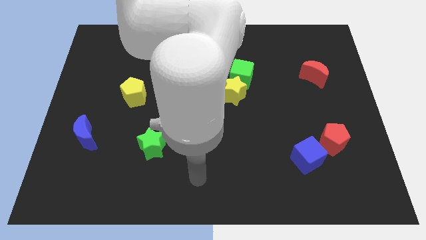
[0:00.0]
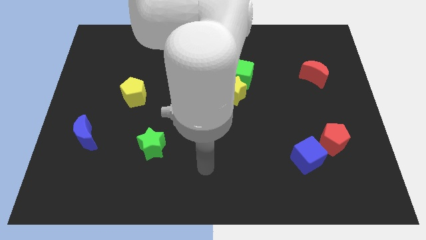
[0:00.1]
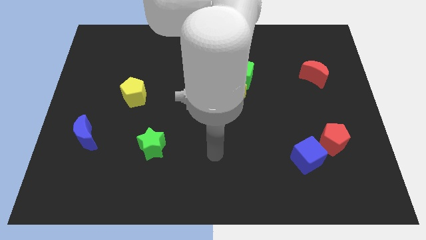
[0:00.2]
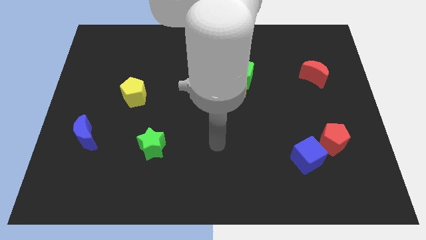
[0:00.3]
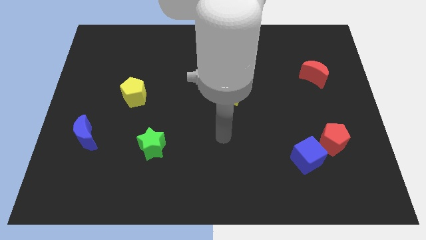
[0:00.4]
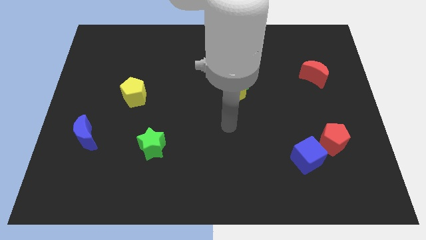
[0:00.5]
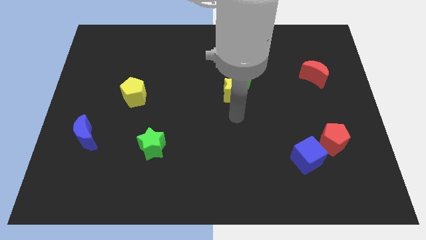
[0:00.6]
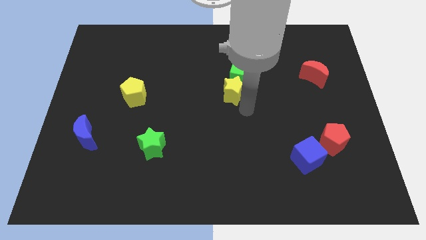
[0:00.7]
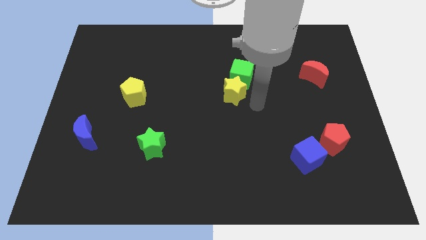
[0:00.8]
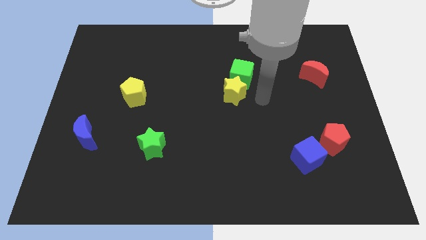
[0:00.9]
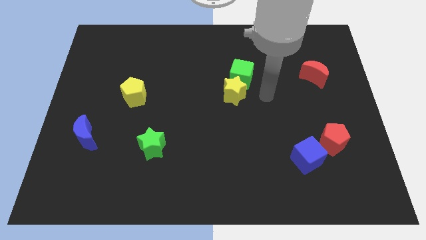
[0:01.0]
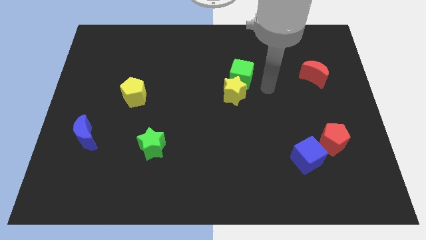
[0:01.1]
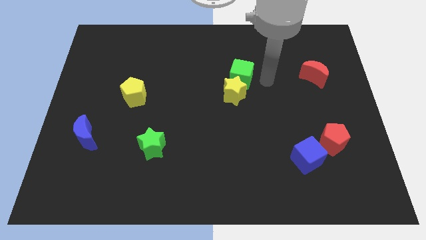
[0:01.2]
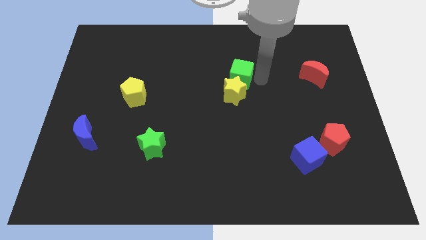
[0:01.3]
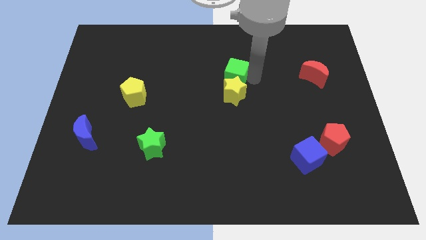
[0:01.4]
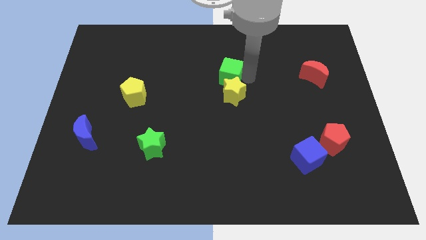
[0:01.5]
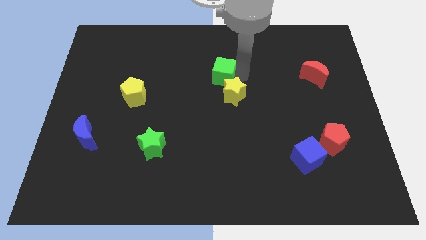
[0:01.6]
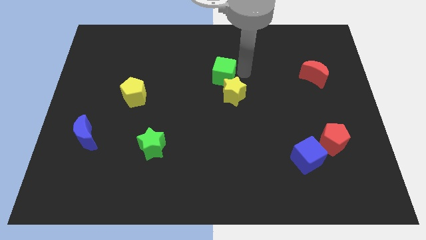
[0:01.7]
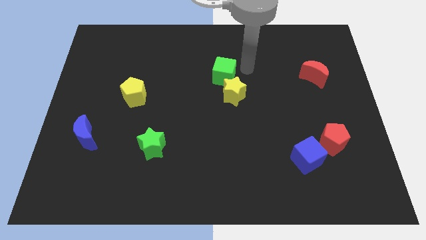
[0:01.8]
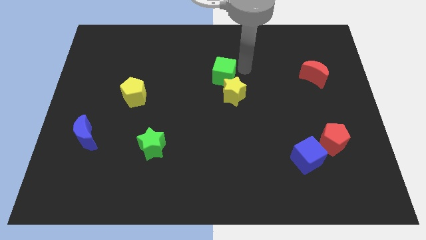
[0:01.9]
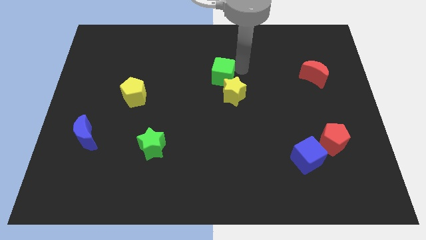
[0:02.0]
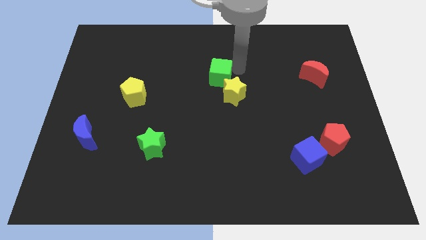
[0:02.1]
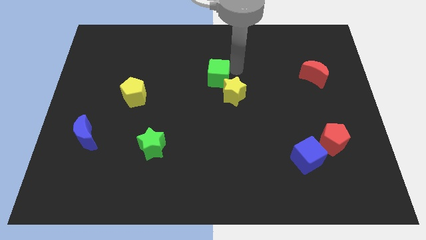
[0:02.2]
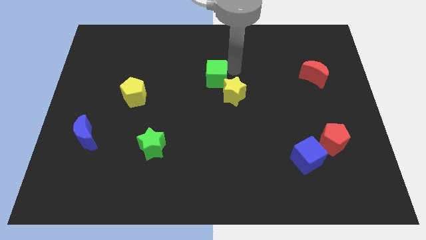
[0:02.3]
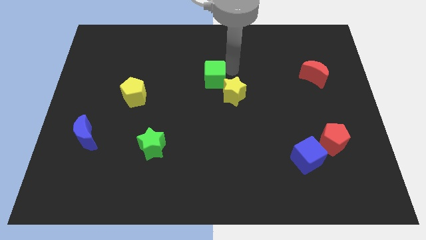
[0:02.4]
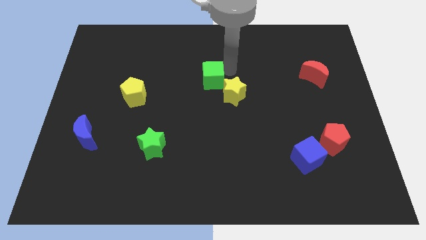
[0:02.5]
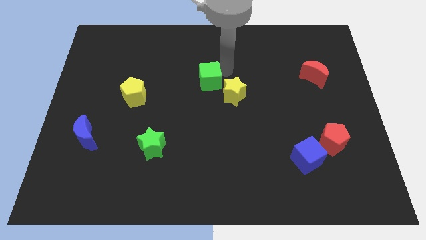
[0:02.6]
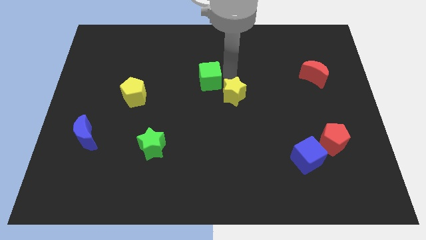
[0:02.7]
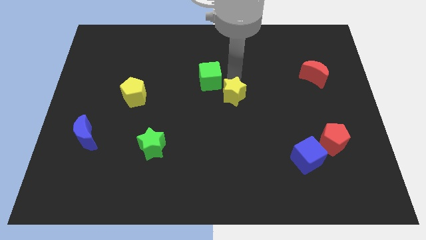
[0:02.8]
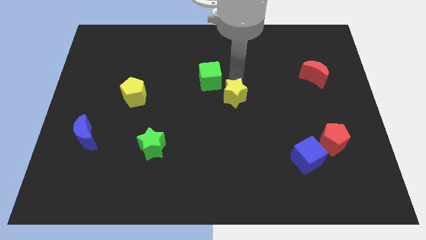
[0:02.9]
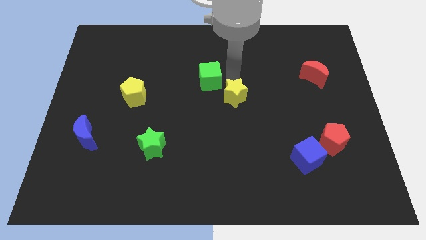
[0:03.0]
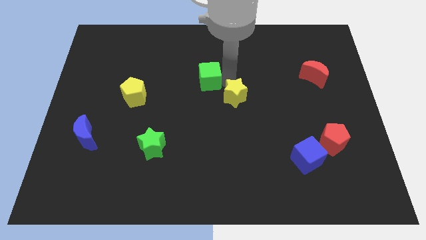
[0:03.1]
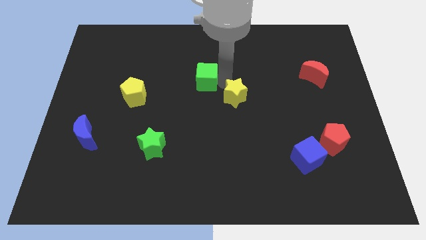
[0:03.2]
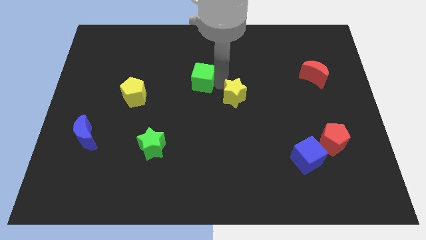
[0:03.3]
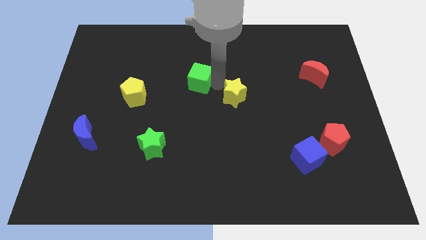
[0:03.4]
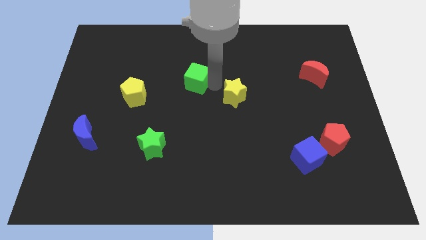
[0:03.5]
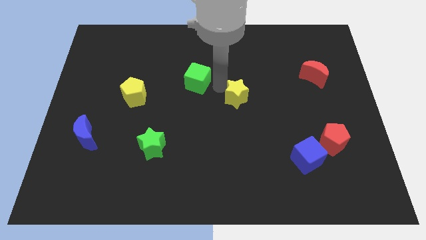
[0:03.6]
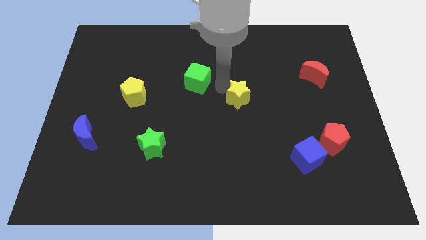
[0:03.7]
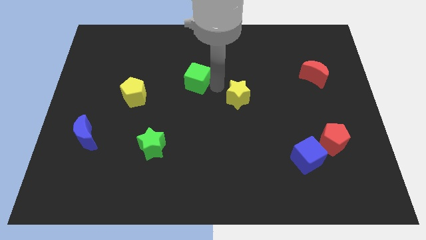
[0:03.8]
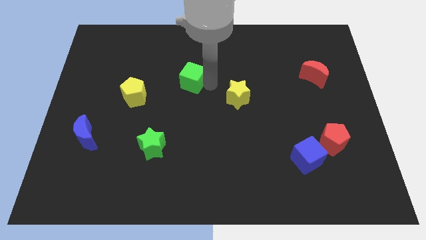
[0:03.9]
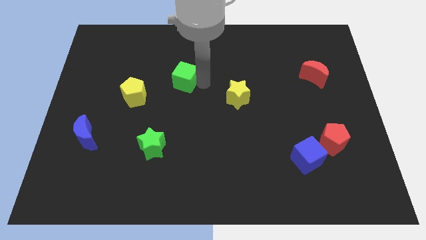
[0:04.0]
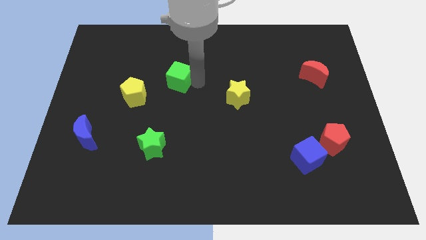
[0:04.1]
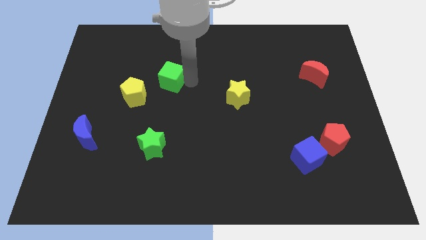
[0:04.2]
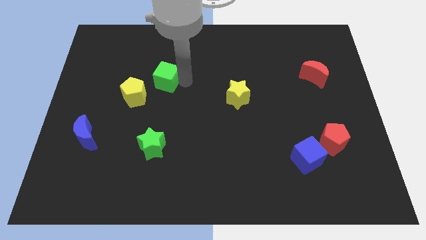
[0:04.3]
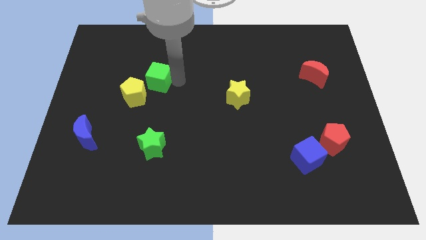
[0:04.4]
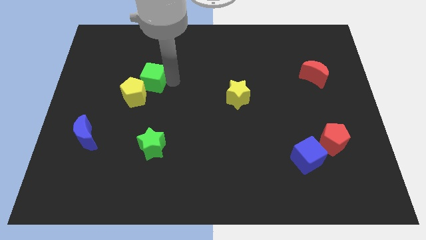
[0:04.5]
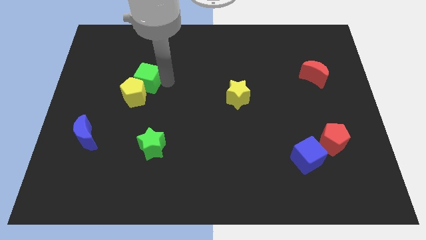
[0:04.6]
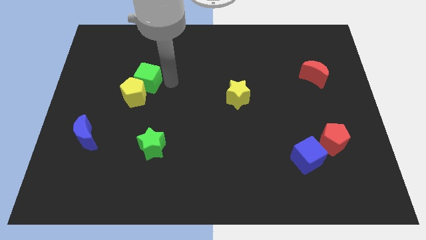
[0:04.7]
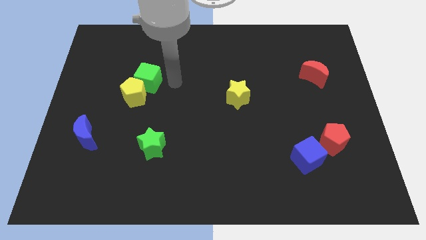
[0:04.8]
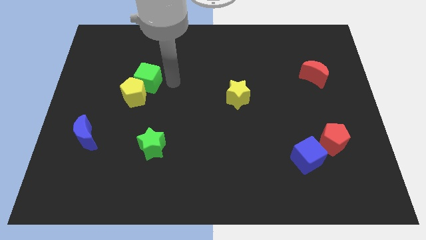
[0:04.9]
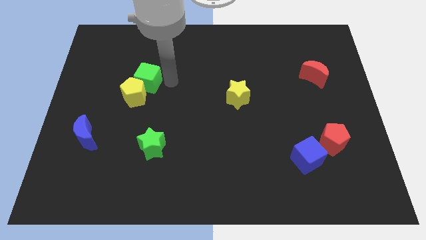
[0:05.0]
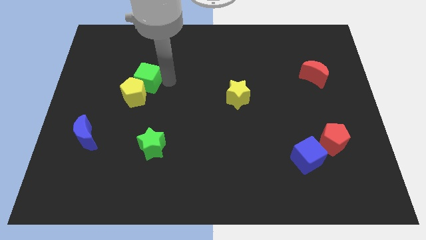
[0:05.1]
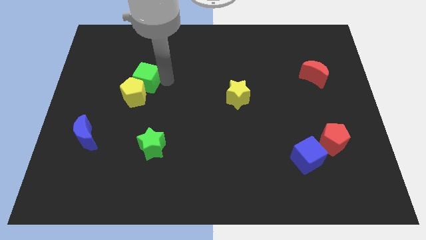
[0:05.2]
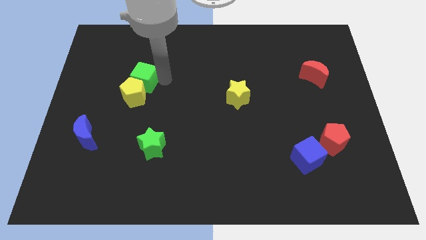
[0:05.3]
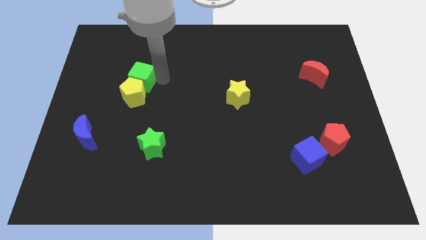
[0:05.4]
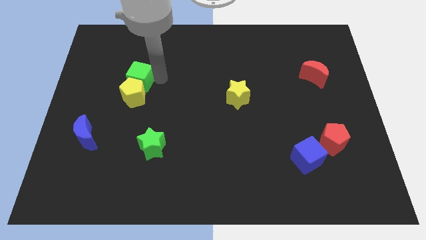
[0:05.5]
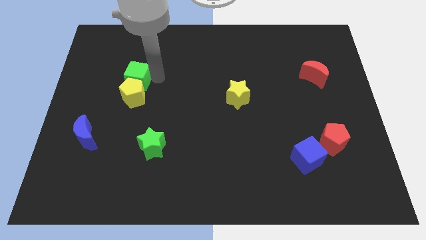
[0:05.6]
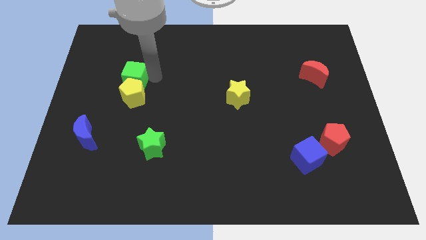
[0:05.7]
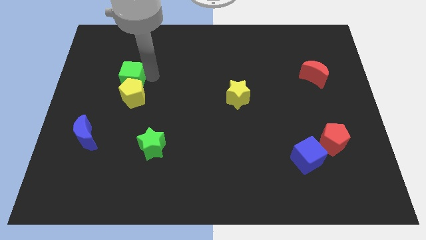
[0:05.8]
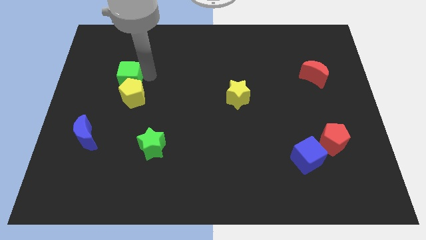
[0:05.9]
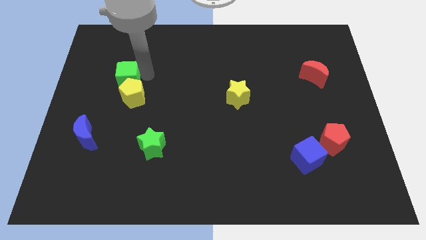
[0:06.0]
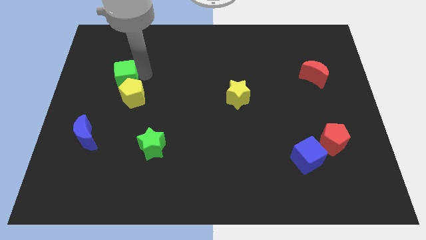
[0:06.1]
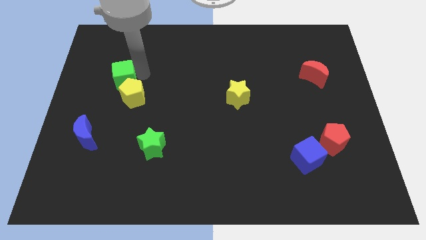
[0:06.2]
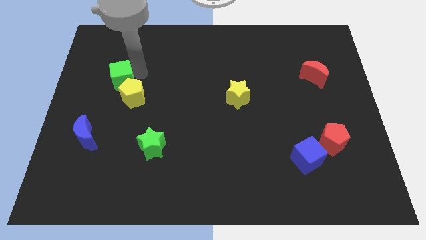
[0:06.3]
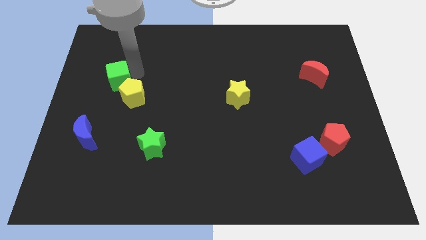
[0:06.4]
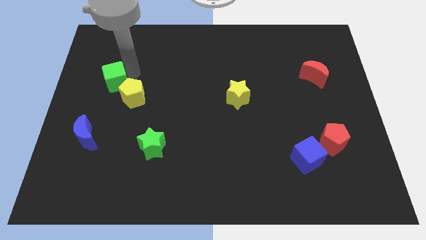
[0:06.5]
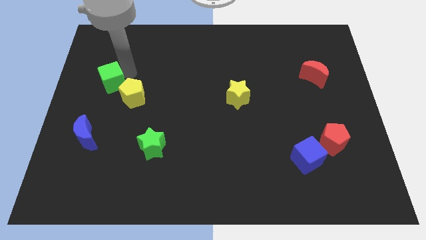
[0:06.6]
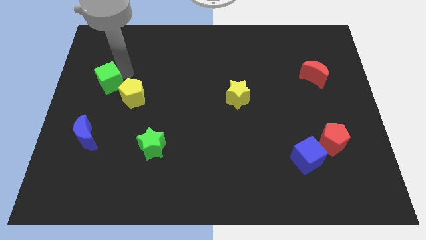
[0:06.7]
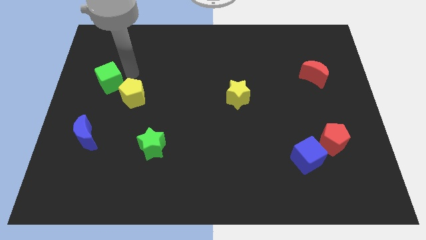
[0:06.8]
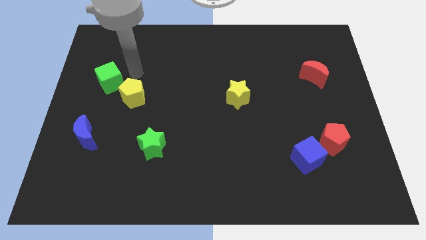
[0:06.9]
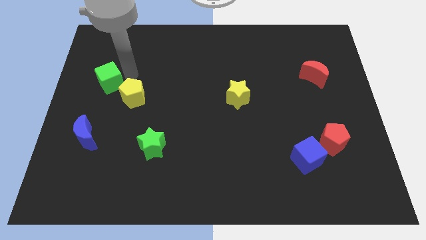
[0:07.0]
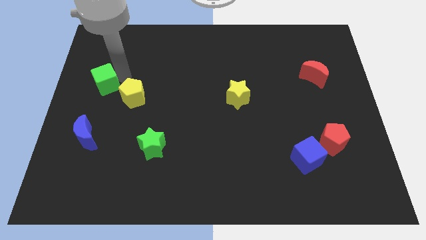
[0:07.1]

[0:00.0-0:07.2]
move the green cube to the left side of the board

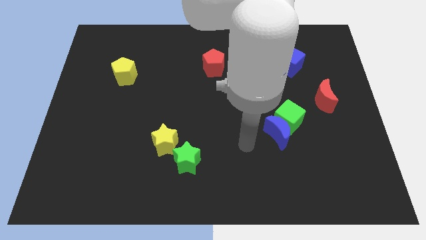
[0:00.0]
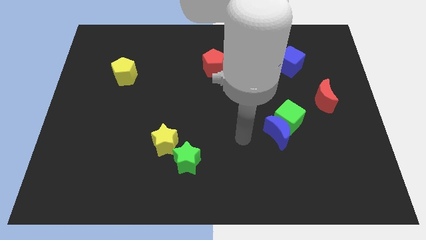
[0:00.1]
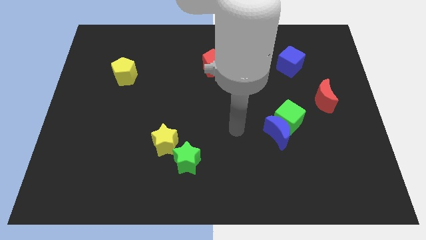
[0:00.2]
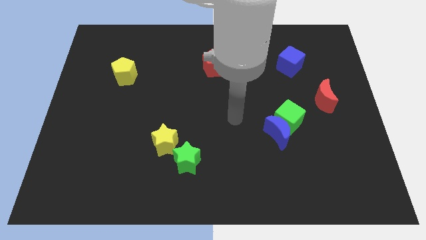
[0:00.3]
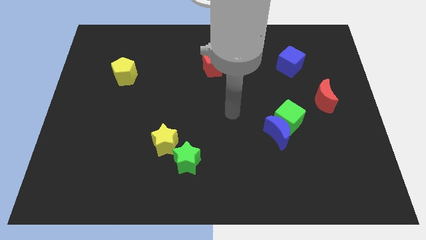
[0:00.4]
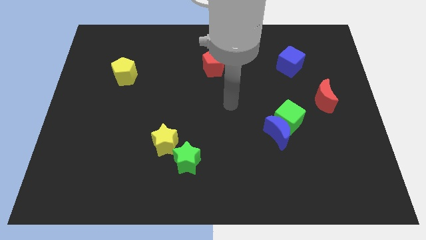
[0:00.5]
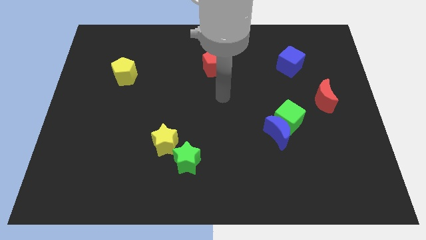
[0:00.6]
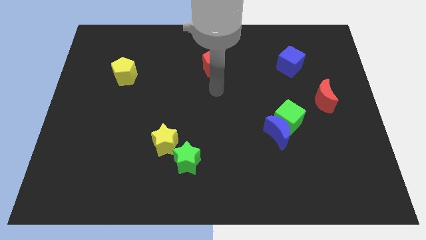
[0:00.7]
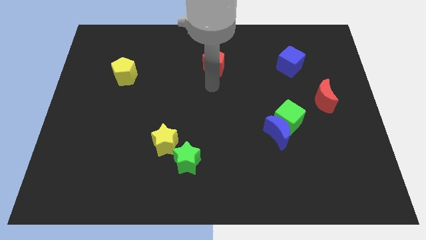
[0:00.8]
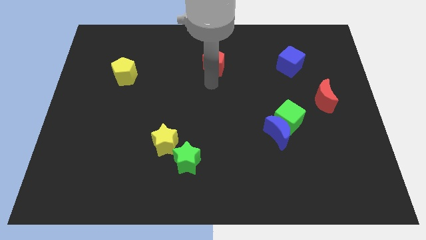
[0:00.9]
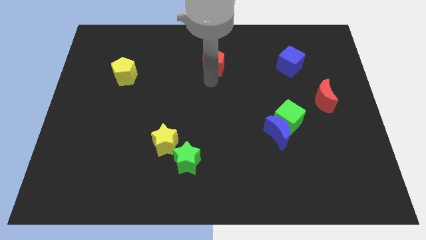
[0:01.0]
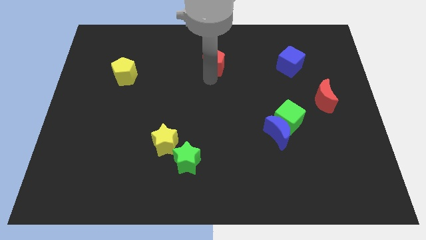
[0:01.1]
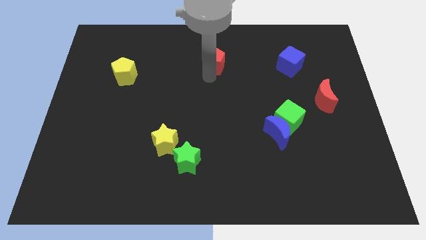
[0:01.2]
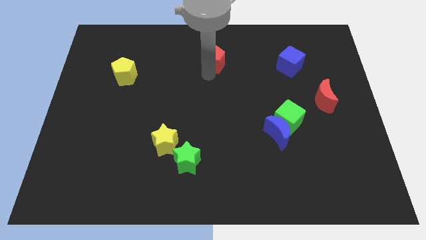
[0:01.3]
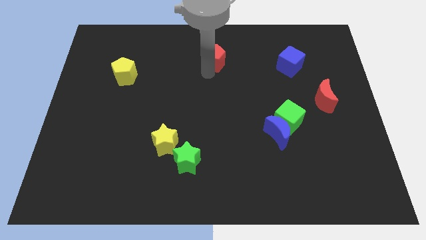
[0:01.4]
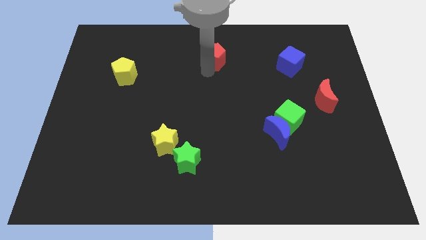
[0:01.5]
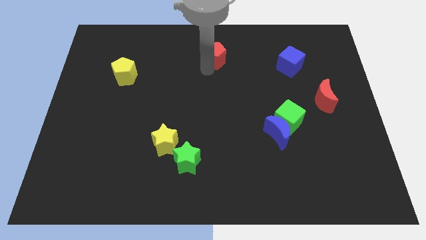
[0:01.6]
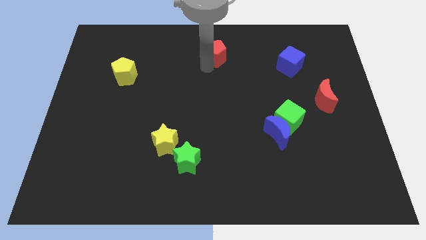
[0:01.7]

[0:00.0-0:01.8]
push the red pentagon to the top
